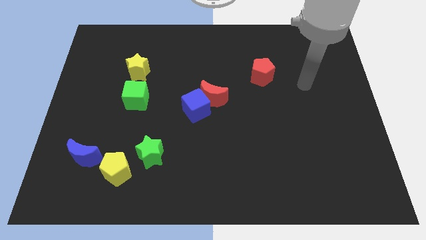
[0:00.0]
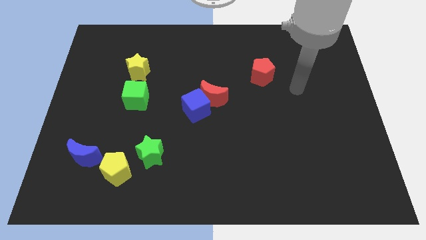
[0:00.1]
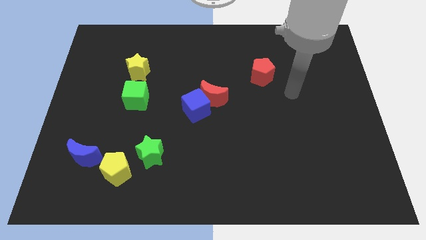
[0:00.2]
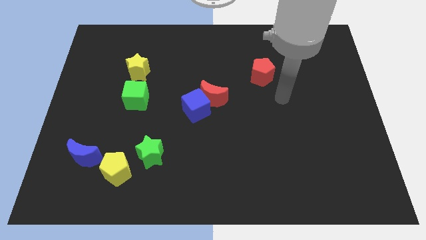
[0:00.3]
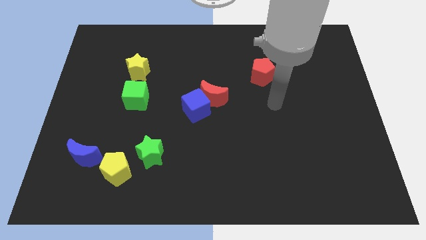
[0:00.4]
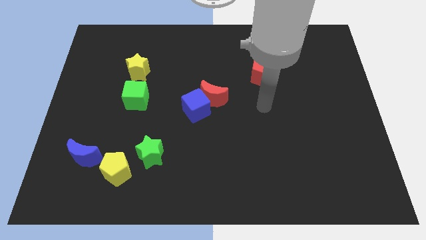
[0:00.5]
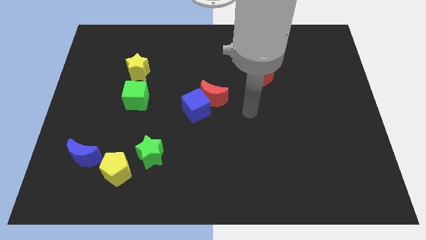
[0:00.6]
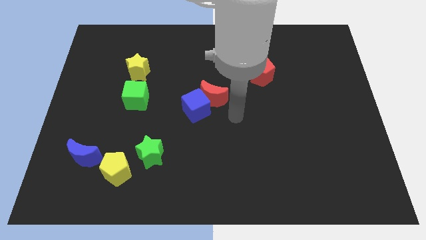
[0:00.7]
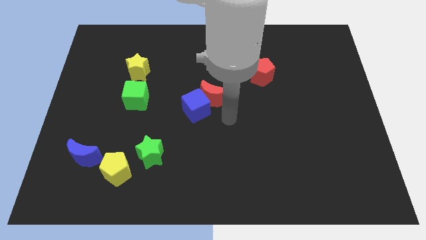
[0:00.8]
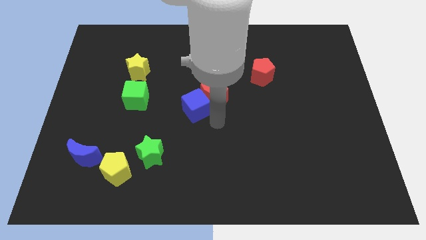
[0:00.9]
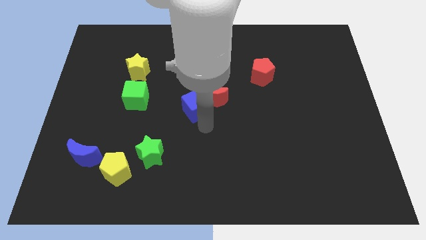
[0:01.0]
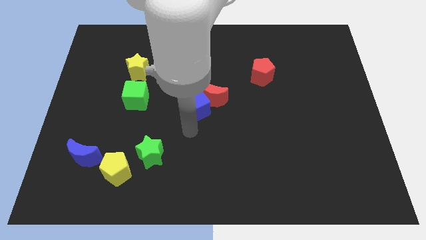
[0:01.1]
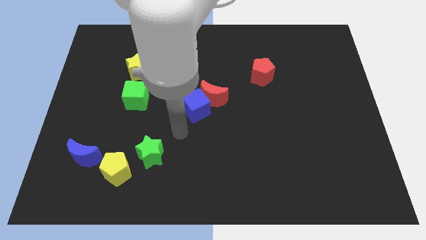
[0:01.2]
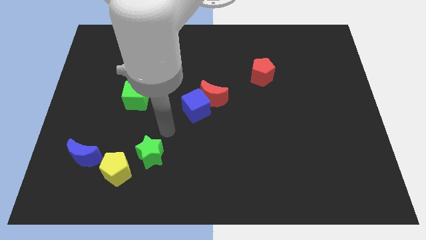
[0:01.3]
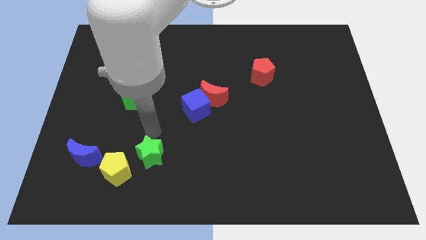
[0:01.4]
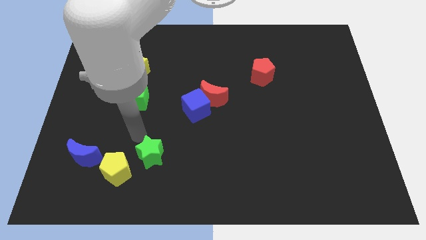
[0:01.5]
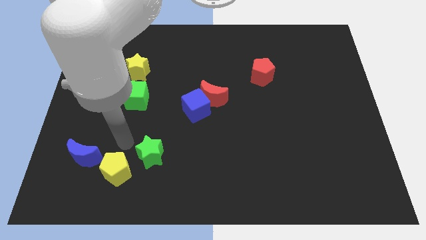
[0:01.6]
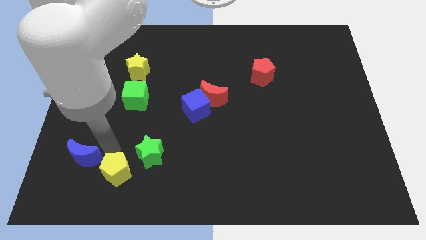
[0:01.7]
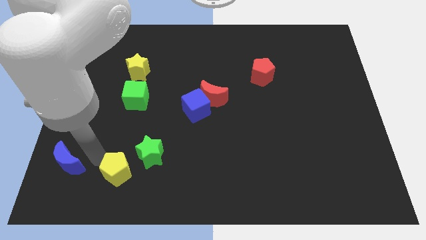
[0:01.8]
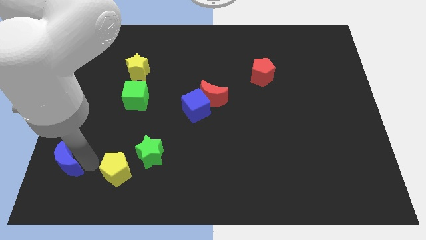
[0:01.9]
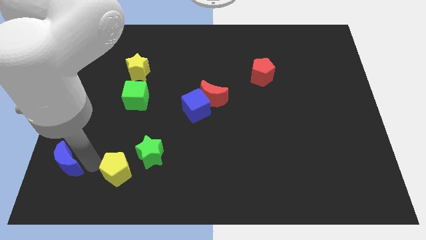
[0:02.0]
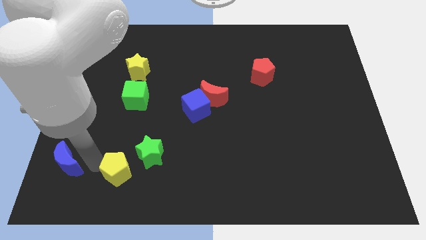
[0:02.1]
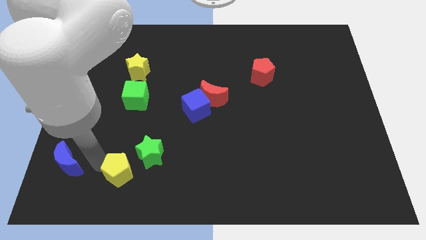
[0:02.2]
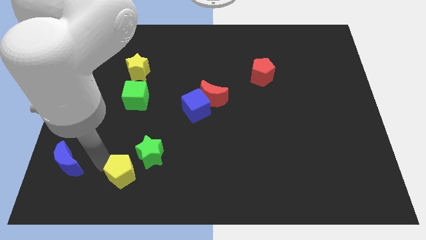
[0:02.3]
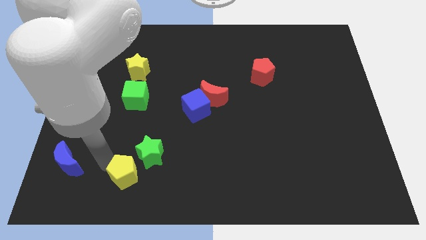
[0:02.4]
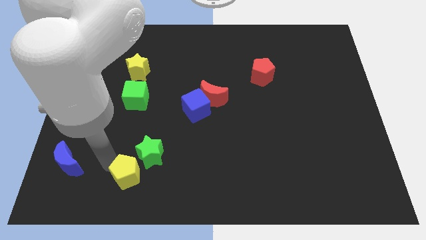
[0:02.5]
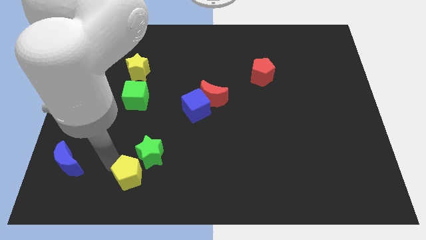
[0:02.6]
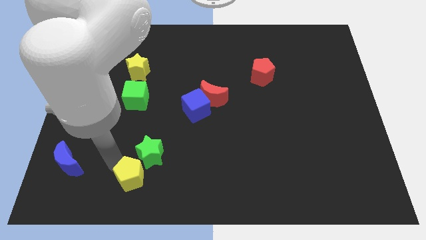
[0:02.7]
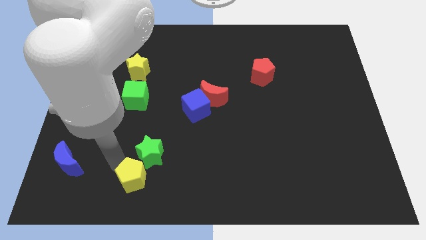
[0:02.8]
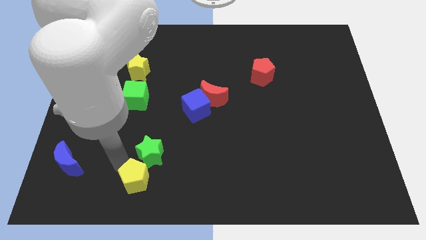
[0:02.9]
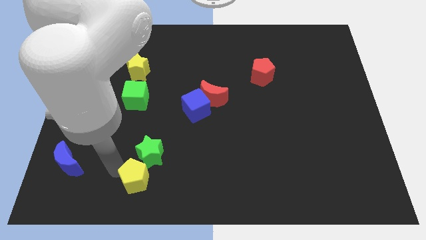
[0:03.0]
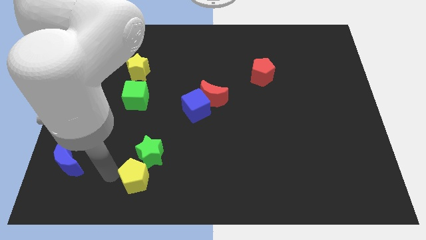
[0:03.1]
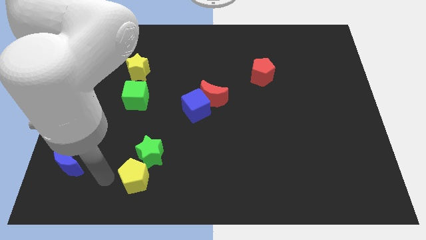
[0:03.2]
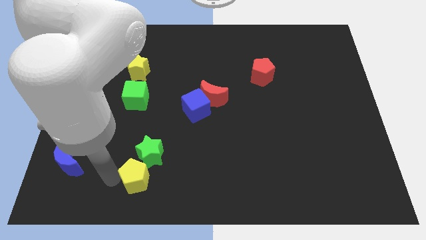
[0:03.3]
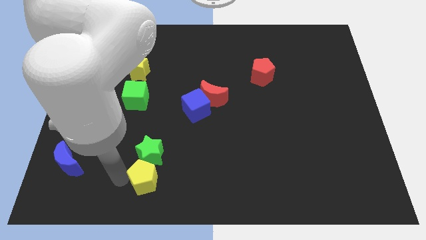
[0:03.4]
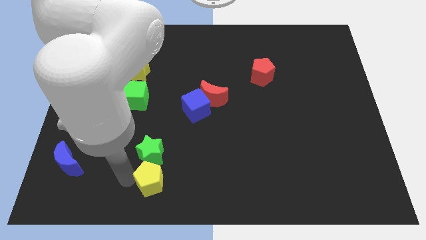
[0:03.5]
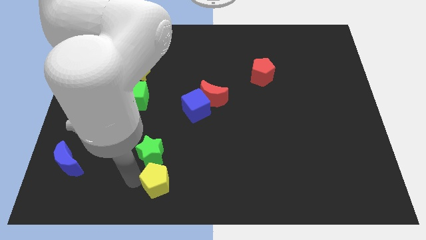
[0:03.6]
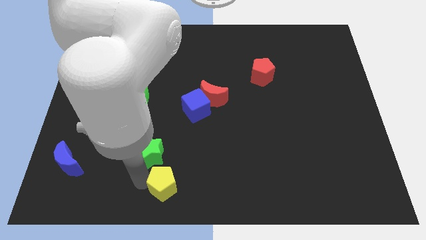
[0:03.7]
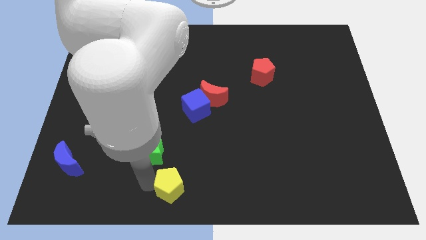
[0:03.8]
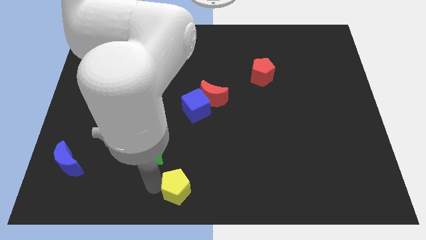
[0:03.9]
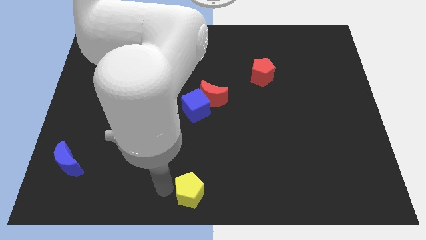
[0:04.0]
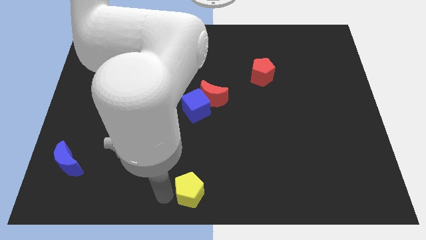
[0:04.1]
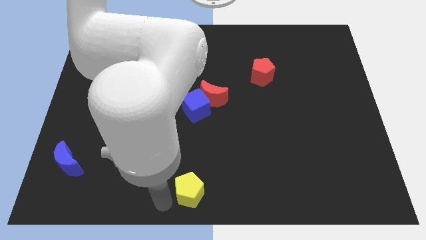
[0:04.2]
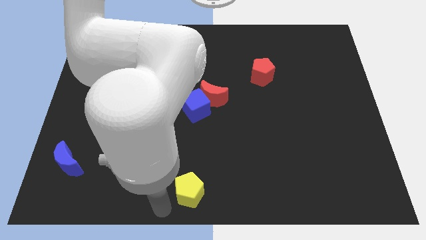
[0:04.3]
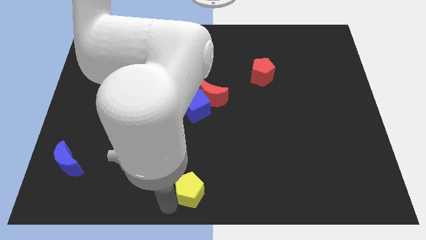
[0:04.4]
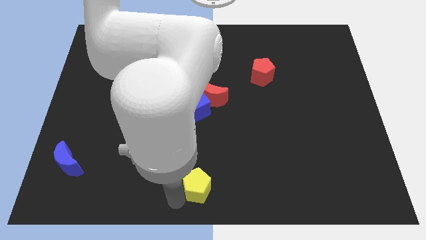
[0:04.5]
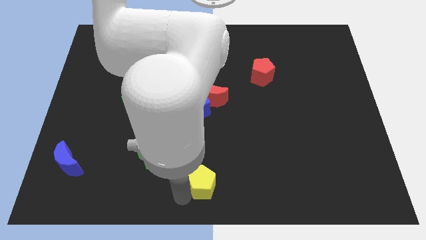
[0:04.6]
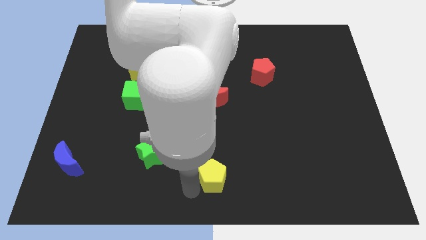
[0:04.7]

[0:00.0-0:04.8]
push the yellow pentagon right

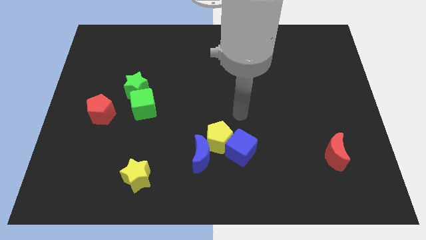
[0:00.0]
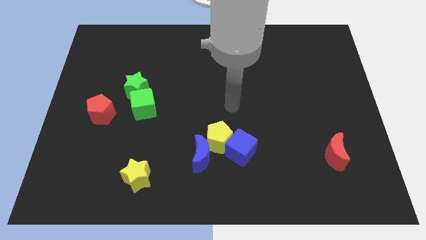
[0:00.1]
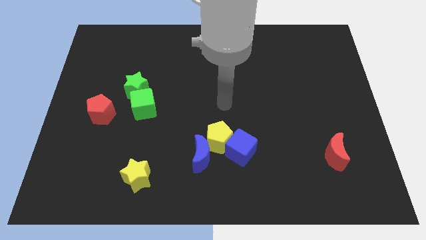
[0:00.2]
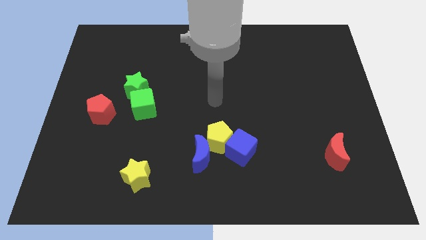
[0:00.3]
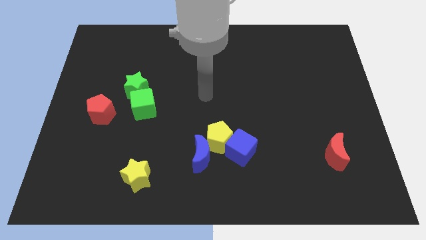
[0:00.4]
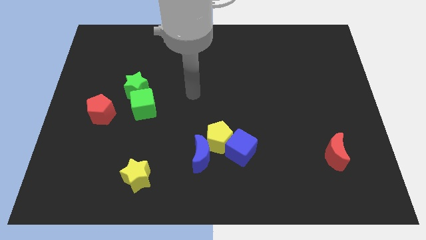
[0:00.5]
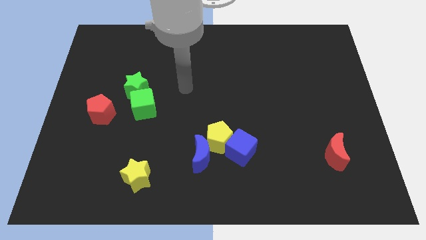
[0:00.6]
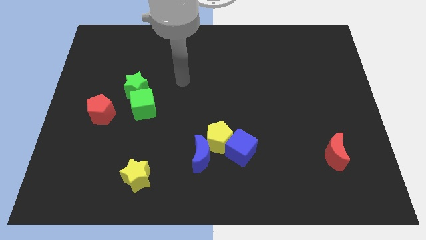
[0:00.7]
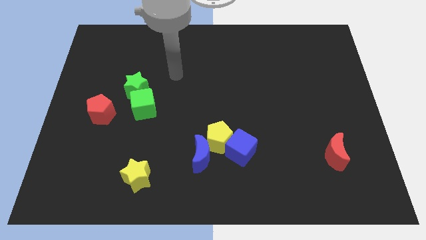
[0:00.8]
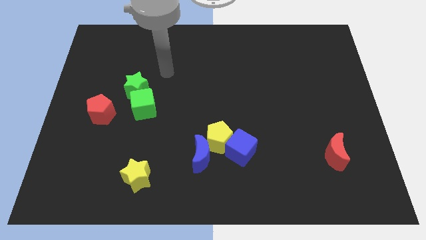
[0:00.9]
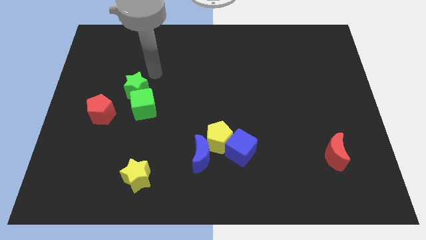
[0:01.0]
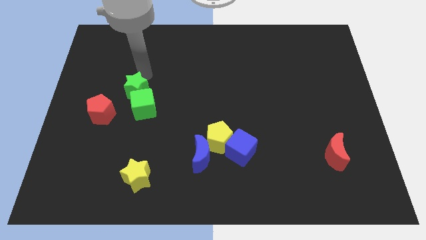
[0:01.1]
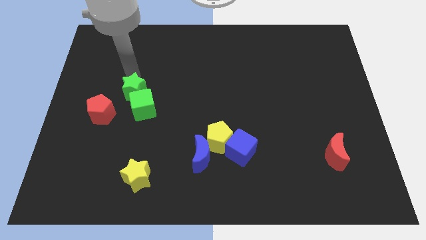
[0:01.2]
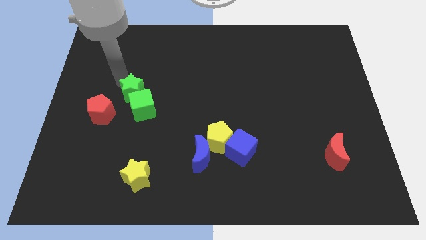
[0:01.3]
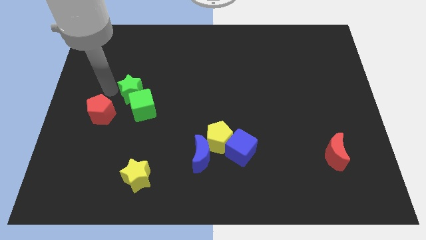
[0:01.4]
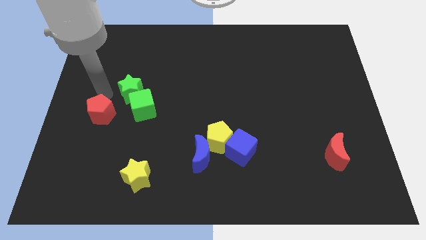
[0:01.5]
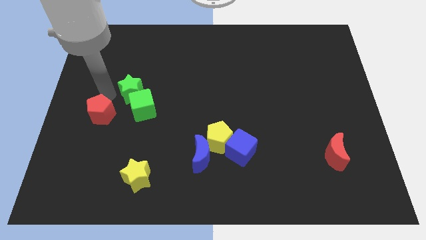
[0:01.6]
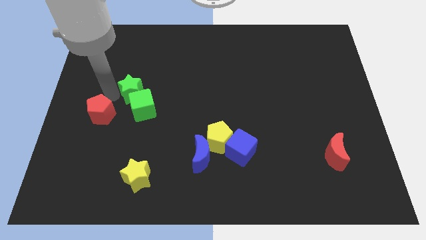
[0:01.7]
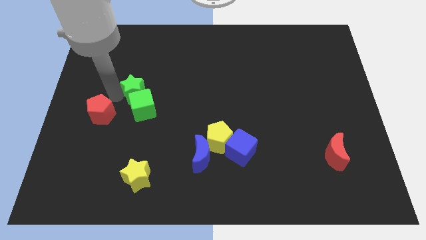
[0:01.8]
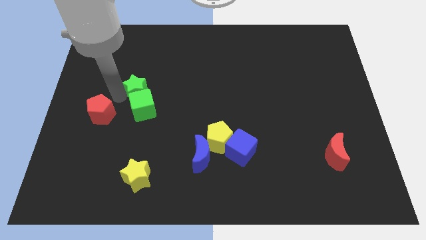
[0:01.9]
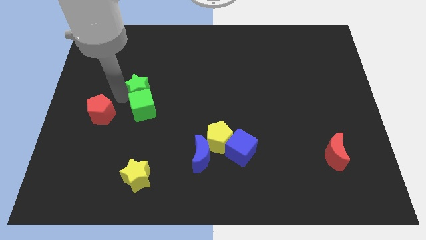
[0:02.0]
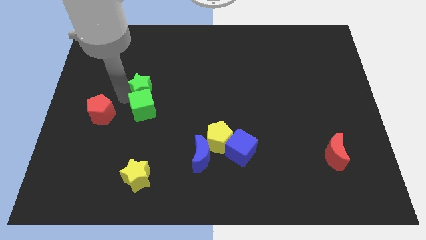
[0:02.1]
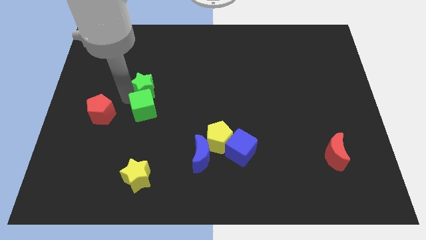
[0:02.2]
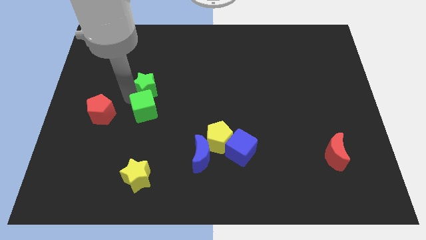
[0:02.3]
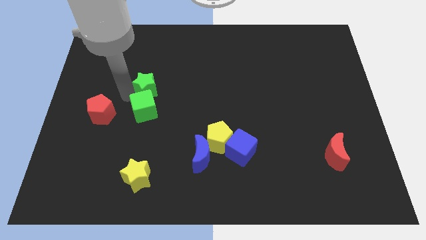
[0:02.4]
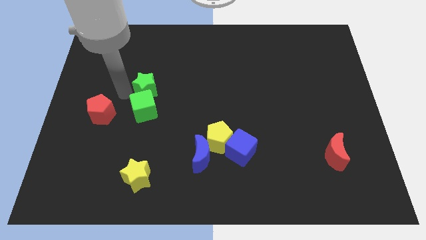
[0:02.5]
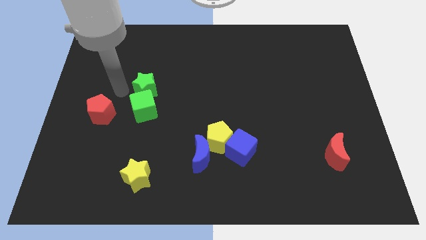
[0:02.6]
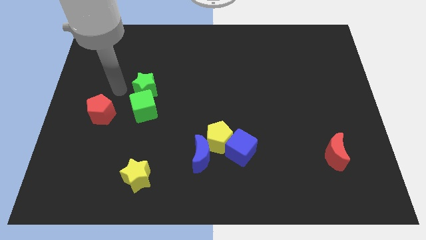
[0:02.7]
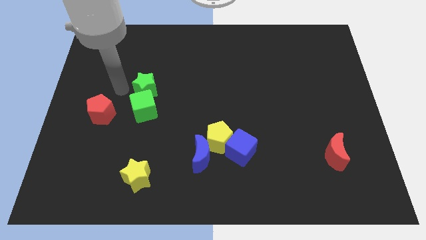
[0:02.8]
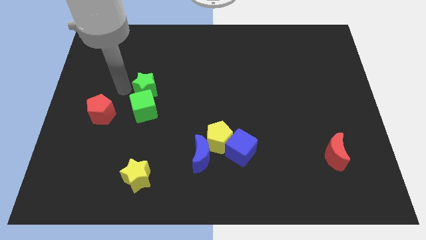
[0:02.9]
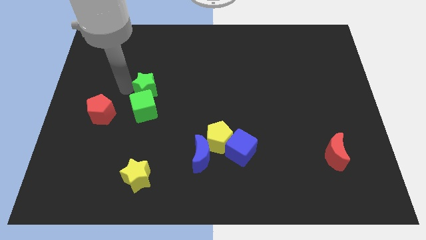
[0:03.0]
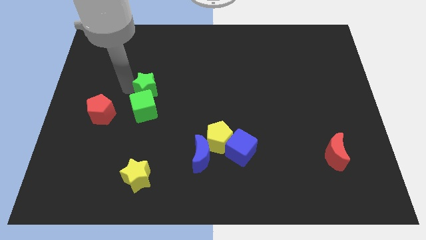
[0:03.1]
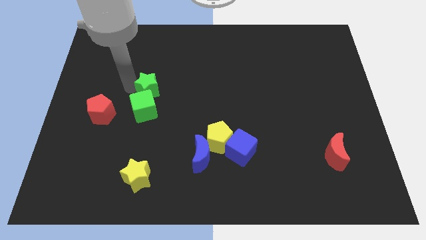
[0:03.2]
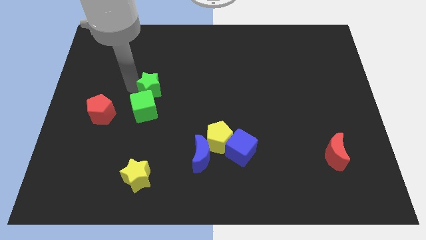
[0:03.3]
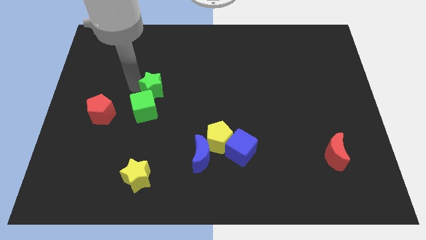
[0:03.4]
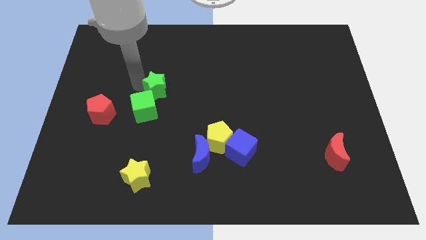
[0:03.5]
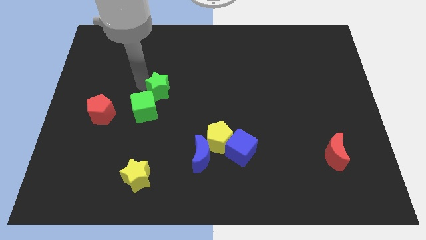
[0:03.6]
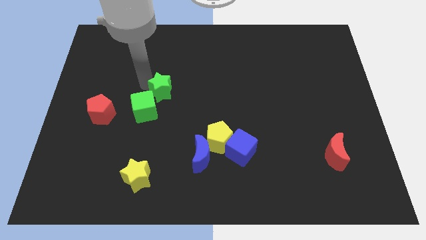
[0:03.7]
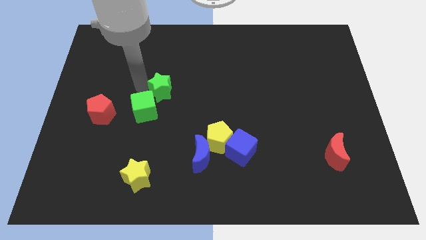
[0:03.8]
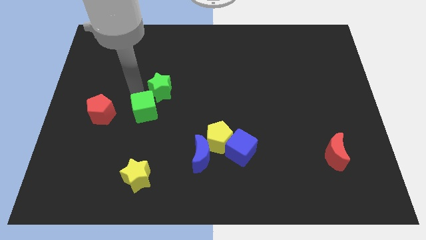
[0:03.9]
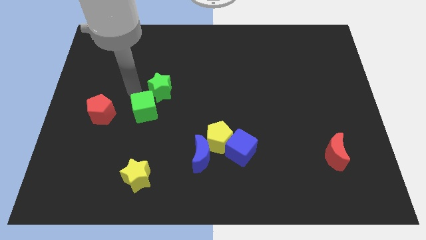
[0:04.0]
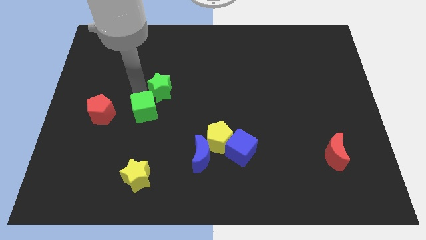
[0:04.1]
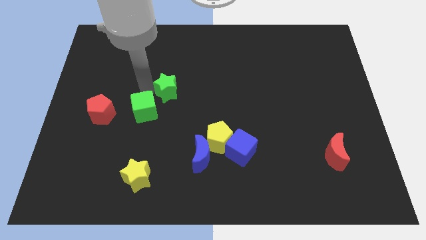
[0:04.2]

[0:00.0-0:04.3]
slightly slide the green star right
